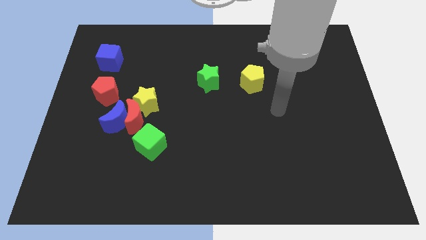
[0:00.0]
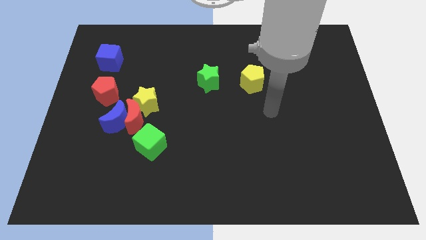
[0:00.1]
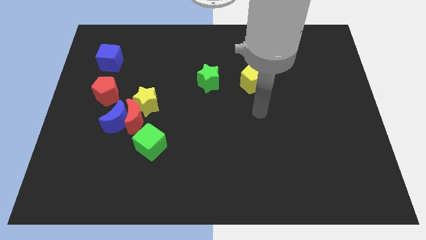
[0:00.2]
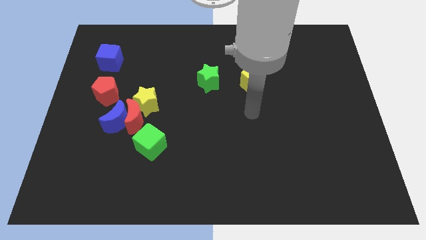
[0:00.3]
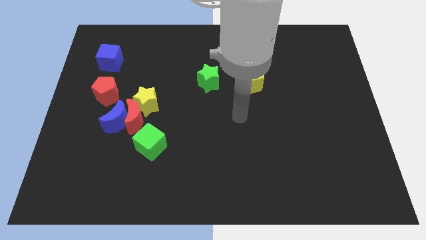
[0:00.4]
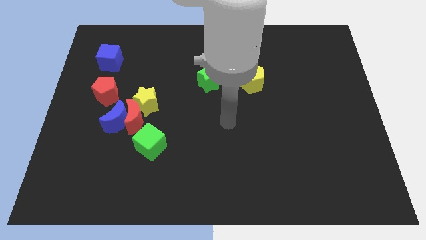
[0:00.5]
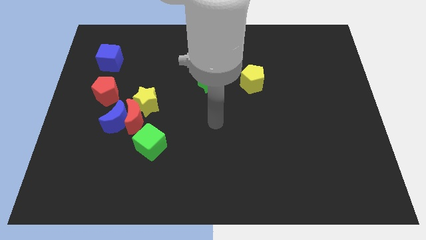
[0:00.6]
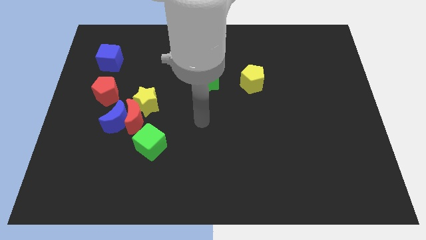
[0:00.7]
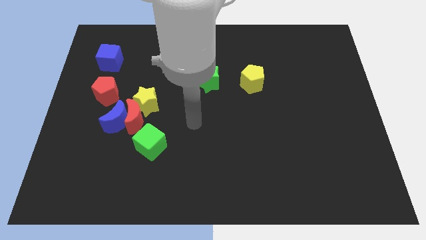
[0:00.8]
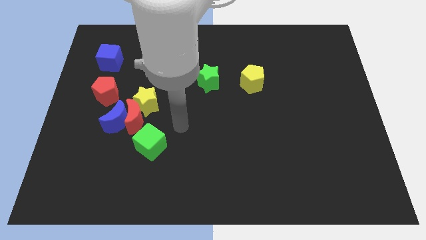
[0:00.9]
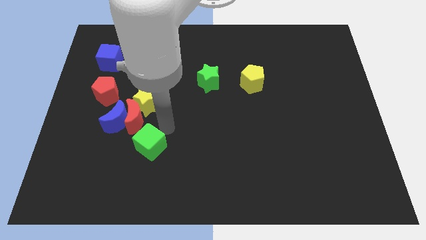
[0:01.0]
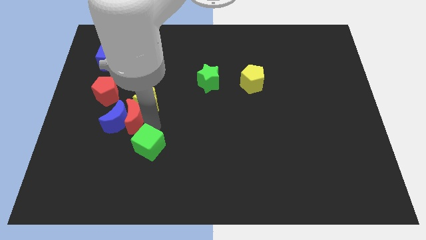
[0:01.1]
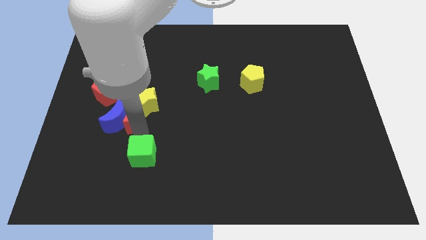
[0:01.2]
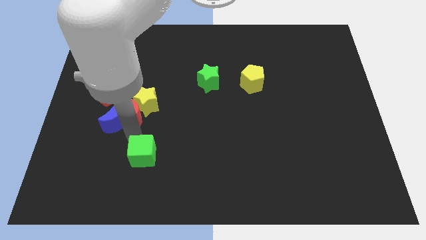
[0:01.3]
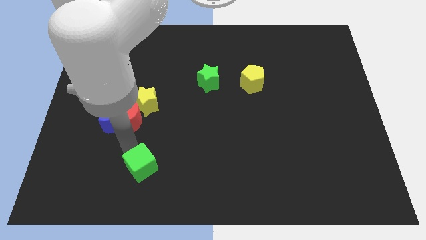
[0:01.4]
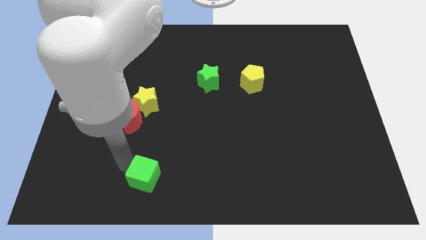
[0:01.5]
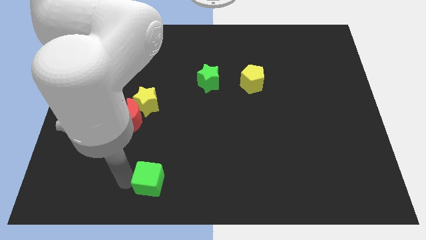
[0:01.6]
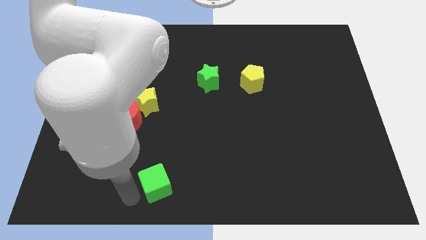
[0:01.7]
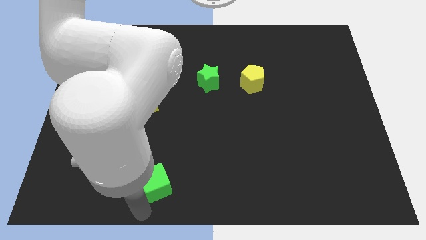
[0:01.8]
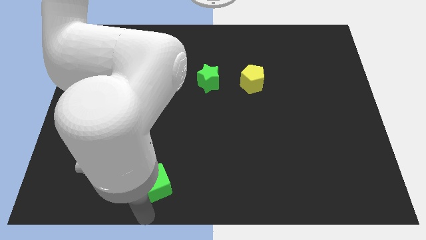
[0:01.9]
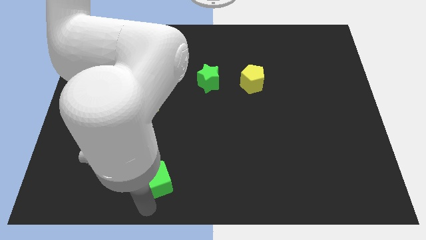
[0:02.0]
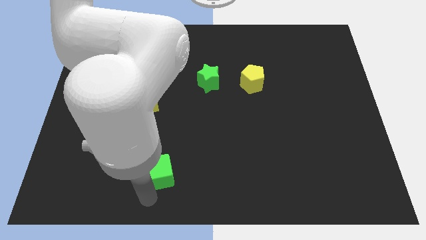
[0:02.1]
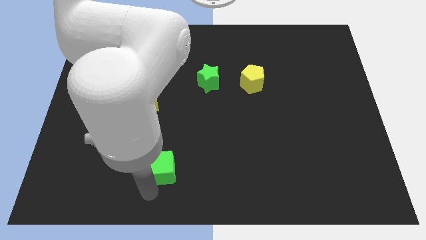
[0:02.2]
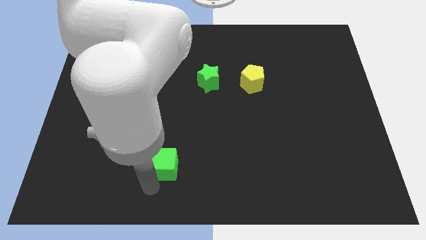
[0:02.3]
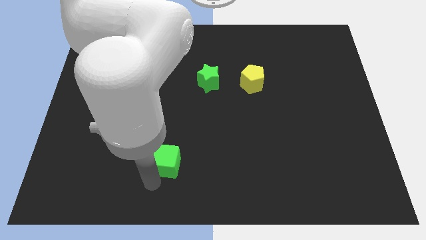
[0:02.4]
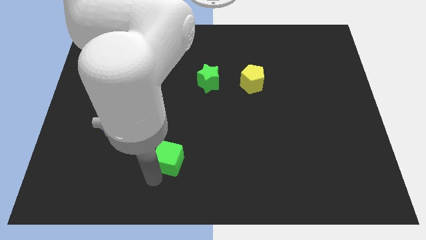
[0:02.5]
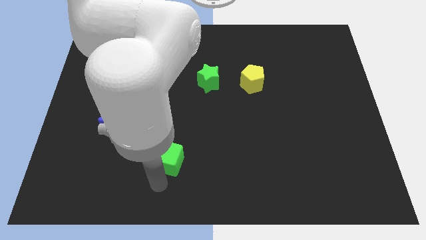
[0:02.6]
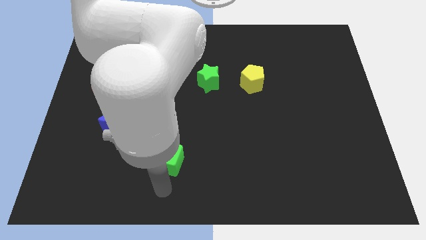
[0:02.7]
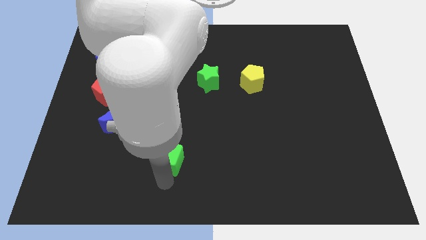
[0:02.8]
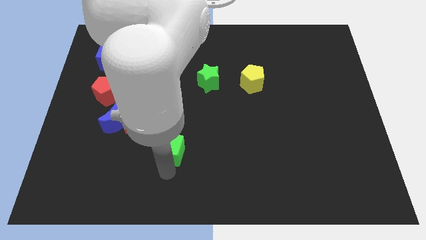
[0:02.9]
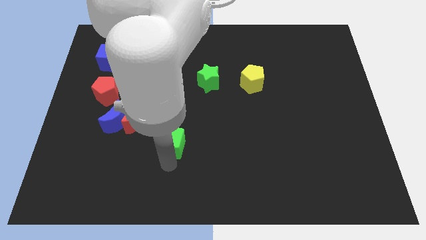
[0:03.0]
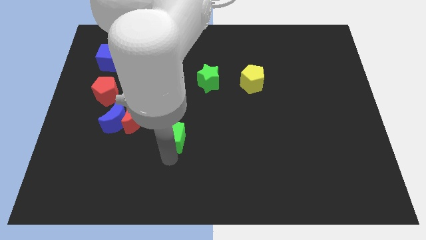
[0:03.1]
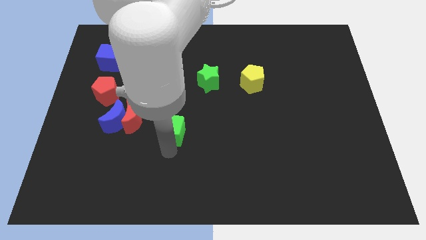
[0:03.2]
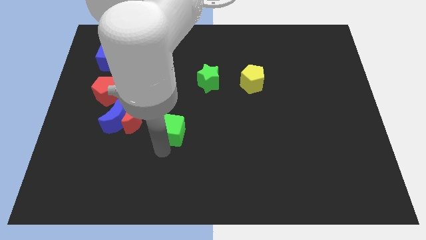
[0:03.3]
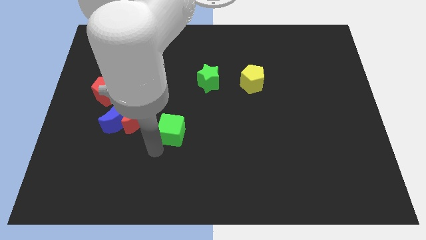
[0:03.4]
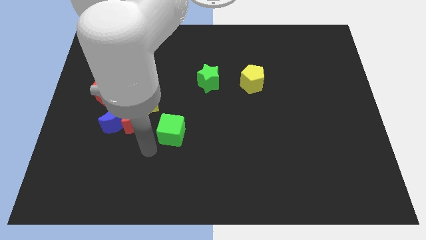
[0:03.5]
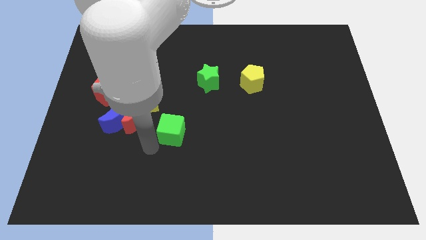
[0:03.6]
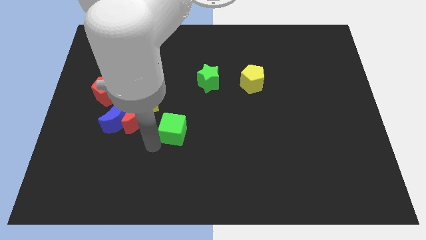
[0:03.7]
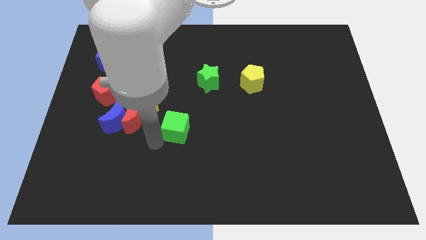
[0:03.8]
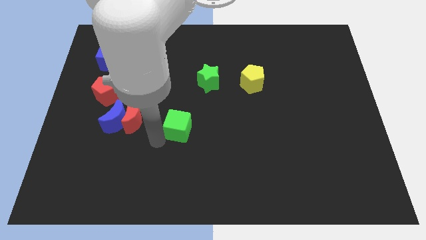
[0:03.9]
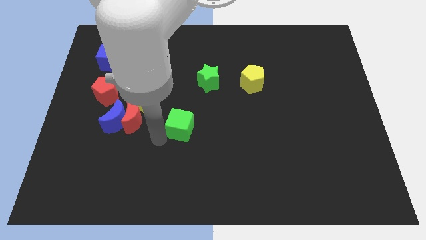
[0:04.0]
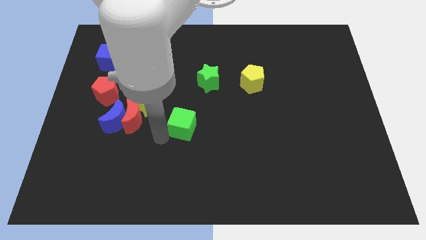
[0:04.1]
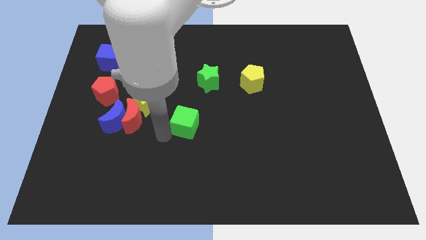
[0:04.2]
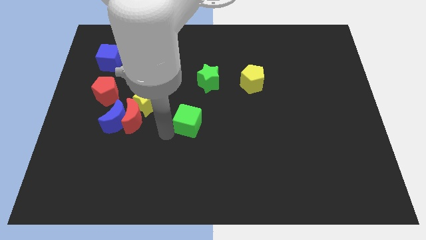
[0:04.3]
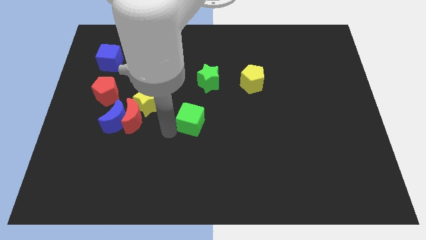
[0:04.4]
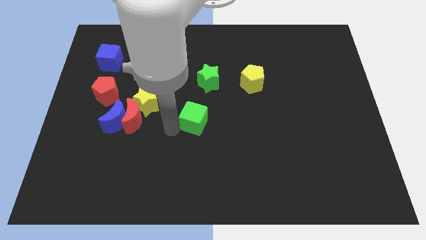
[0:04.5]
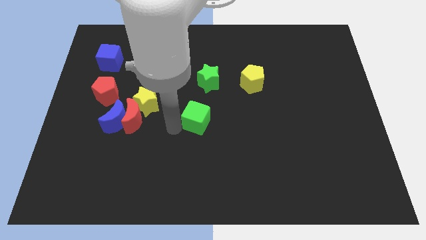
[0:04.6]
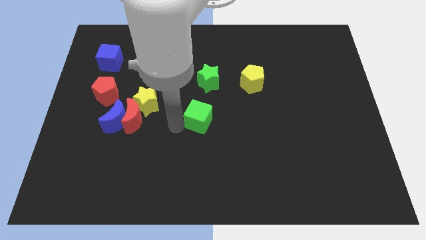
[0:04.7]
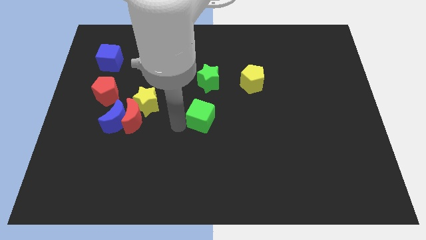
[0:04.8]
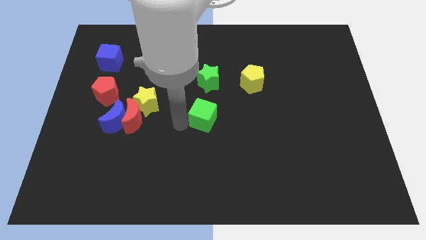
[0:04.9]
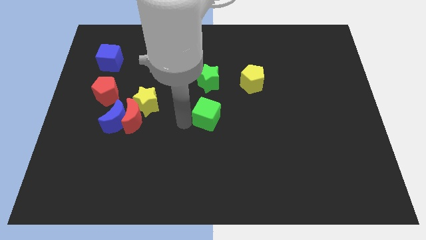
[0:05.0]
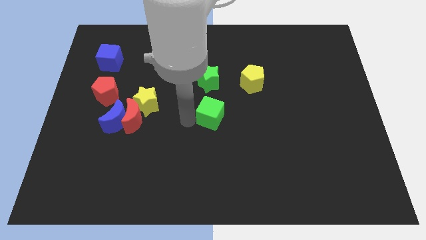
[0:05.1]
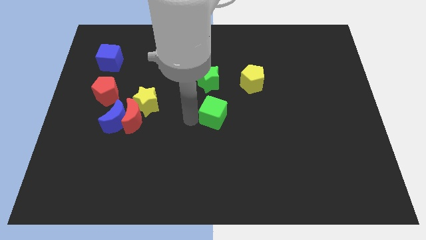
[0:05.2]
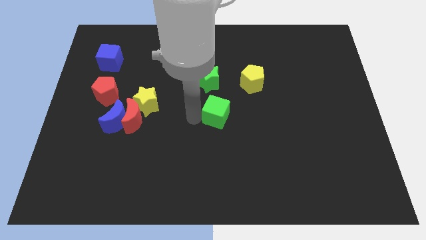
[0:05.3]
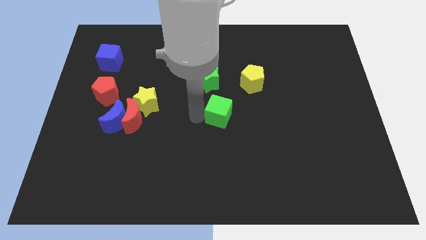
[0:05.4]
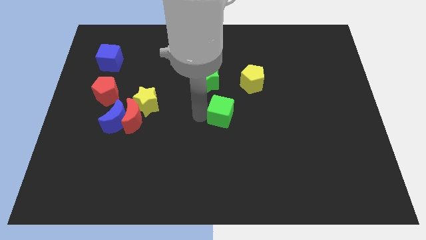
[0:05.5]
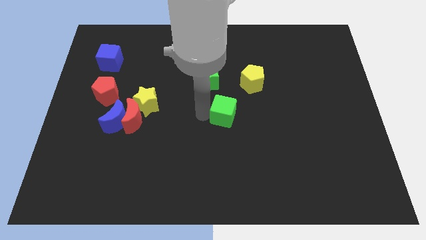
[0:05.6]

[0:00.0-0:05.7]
move the green cube to the bottom right side of the green star

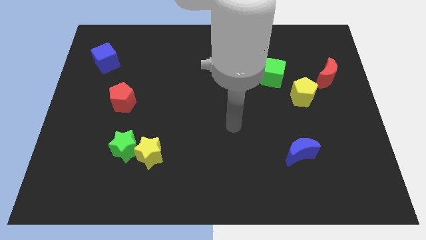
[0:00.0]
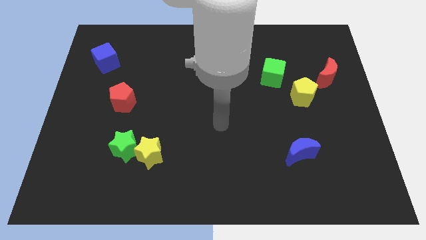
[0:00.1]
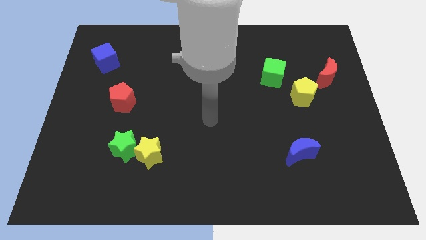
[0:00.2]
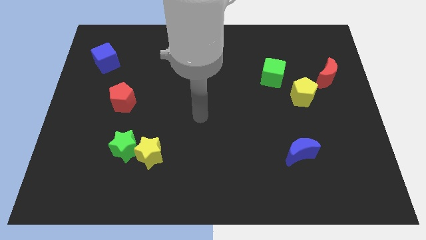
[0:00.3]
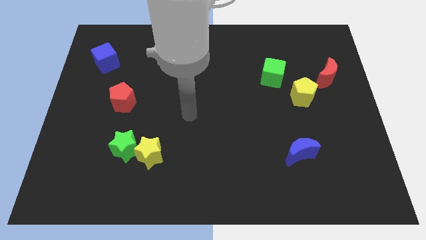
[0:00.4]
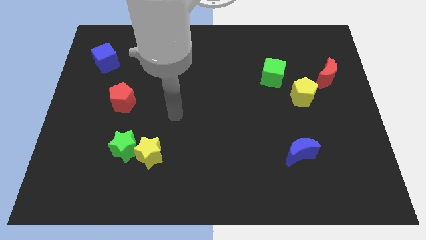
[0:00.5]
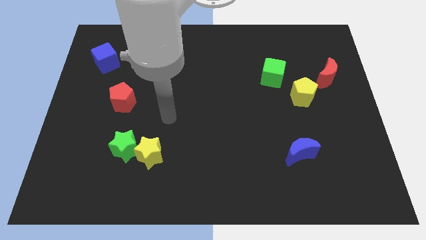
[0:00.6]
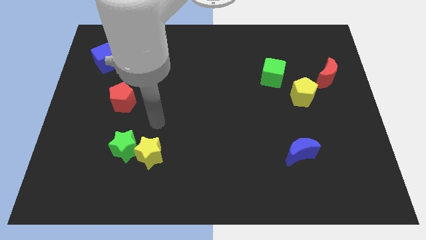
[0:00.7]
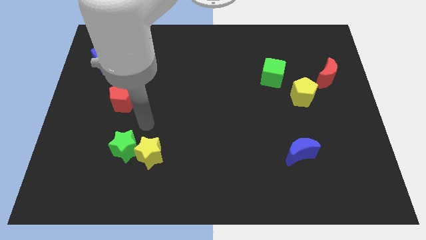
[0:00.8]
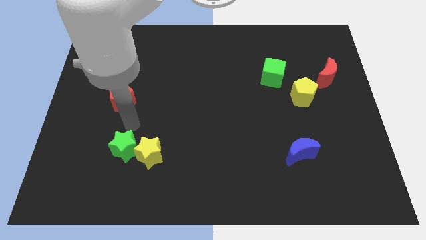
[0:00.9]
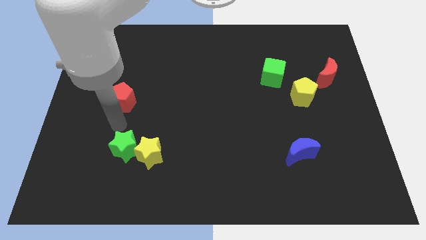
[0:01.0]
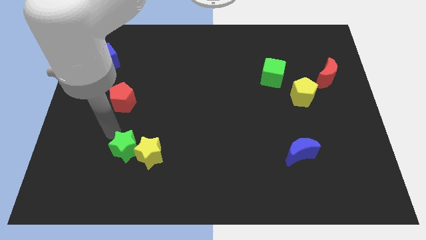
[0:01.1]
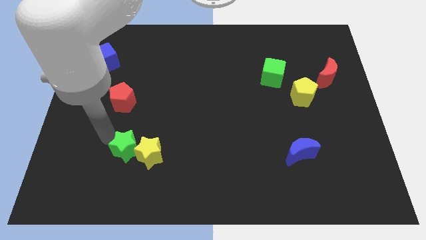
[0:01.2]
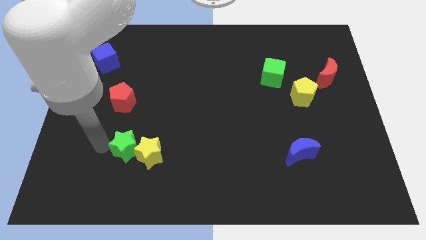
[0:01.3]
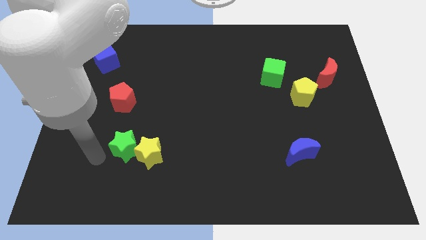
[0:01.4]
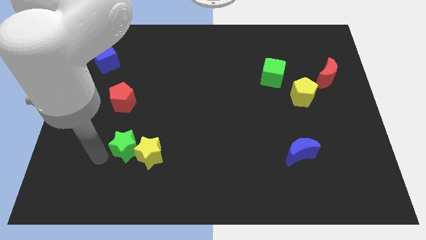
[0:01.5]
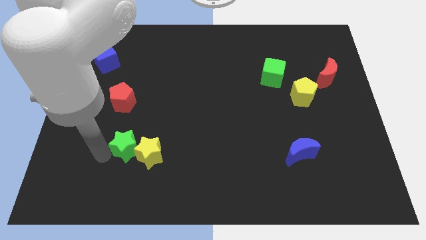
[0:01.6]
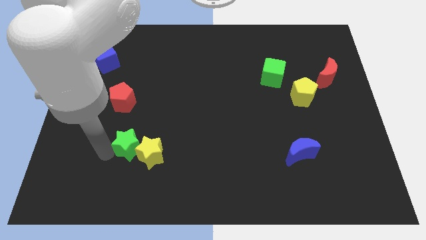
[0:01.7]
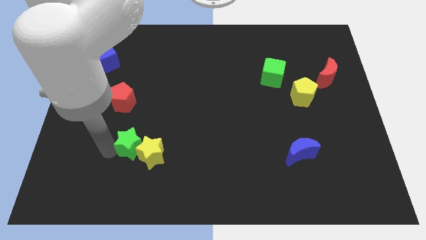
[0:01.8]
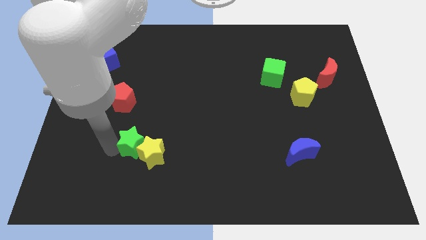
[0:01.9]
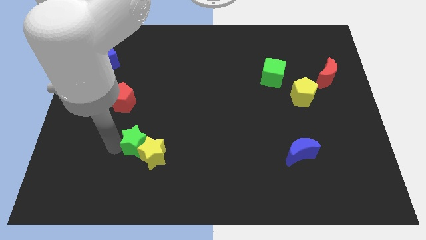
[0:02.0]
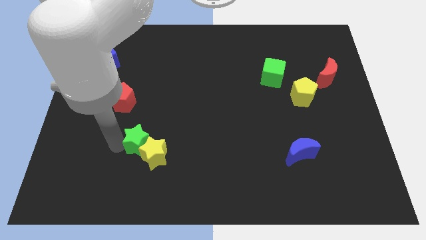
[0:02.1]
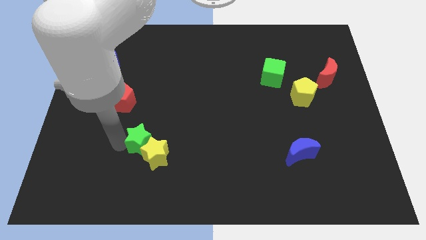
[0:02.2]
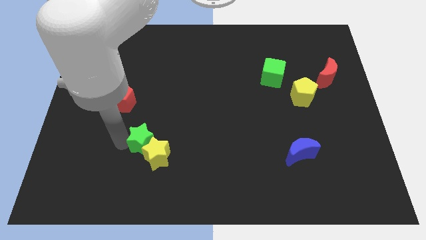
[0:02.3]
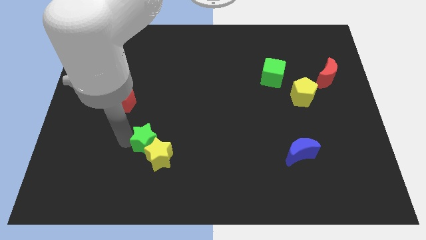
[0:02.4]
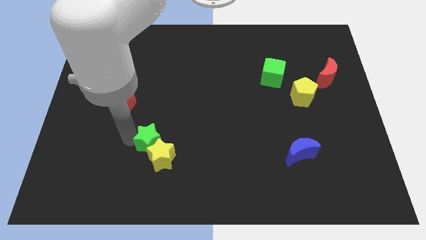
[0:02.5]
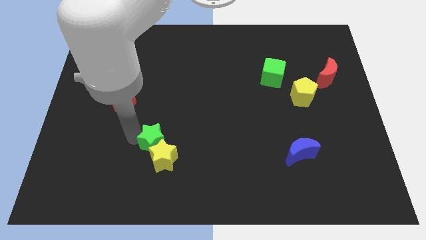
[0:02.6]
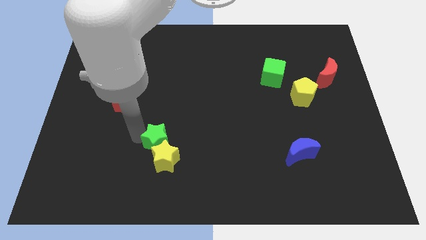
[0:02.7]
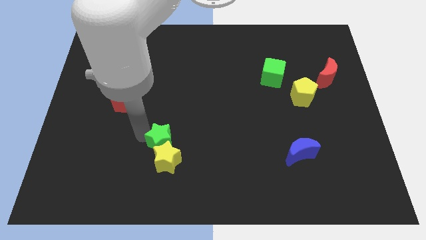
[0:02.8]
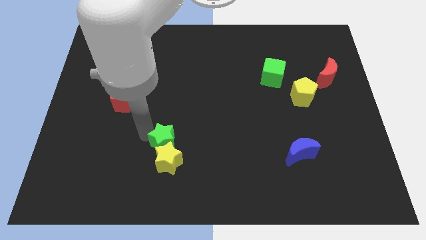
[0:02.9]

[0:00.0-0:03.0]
move the green star to the top right side of the yellow star
